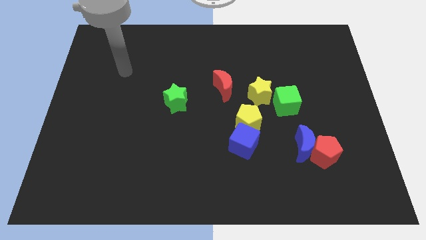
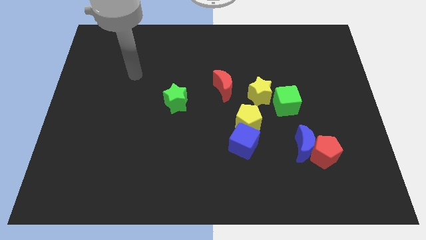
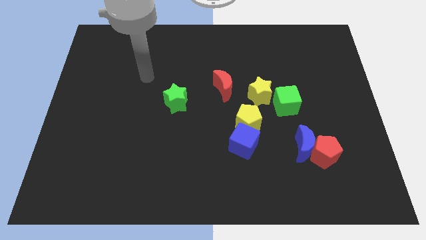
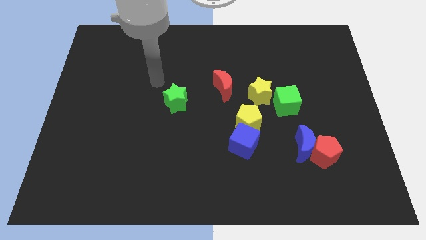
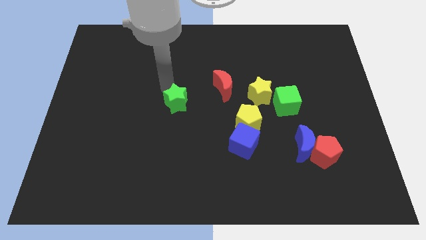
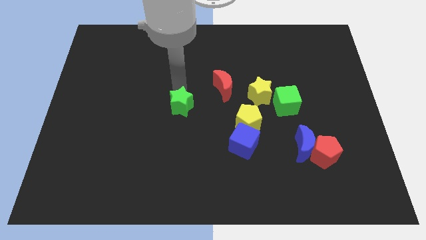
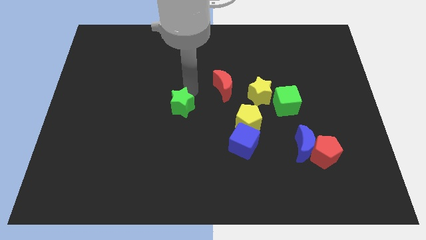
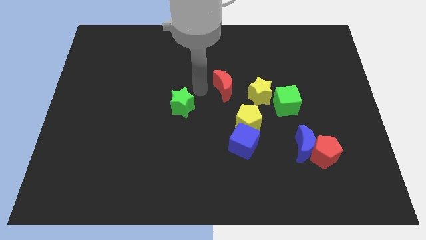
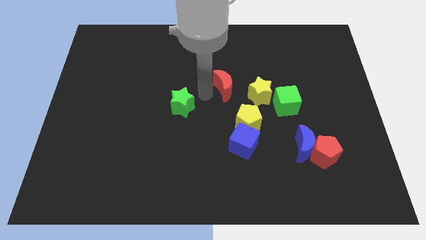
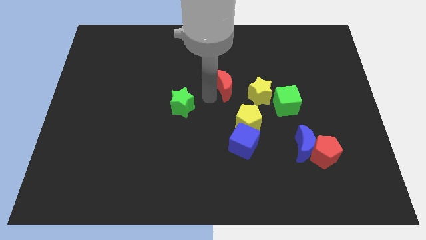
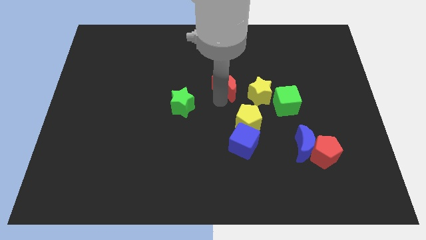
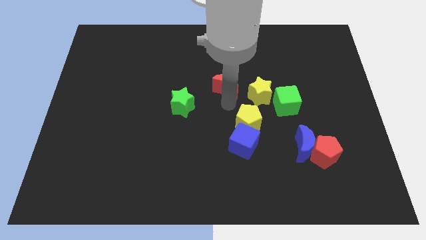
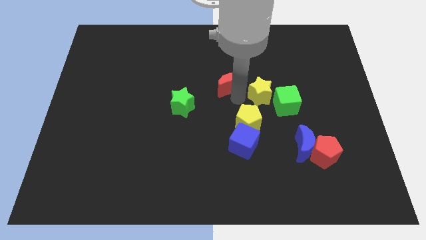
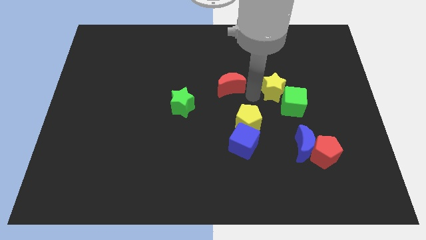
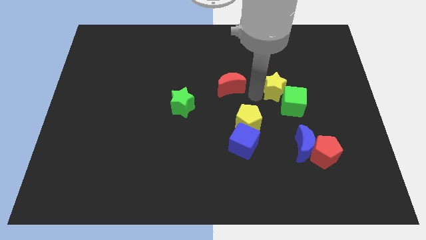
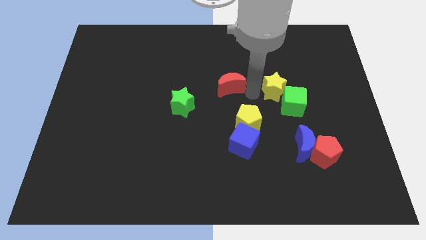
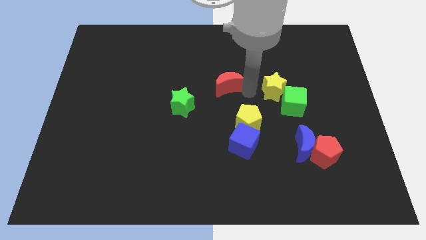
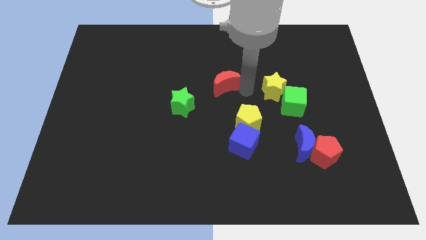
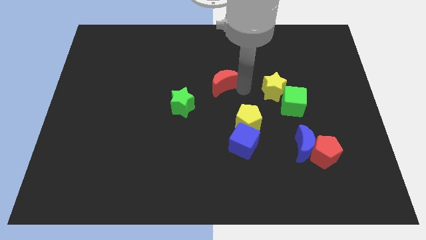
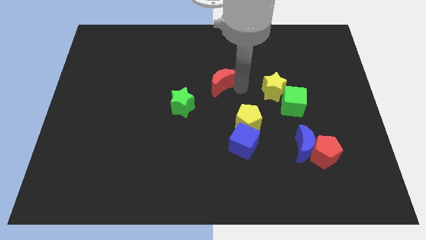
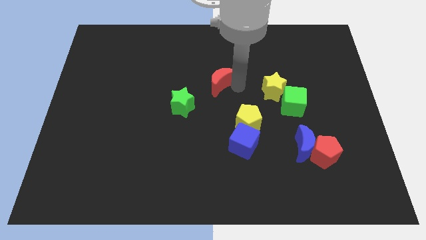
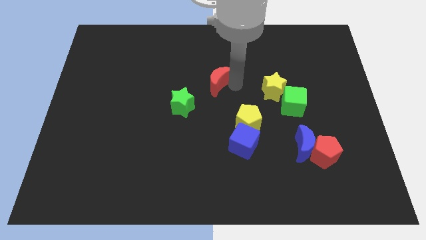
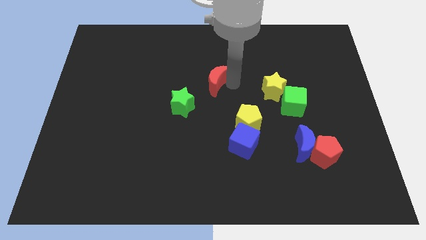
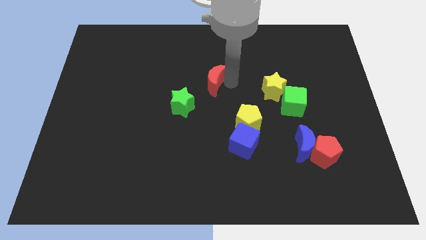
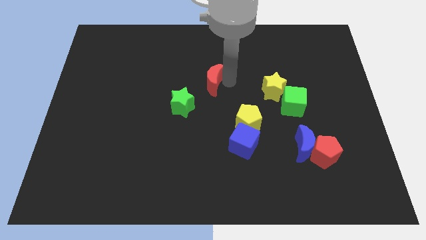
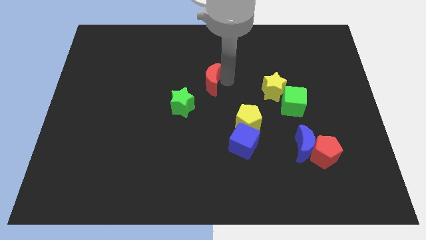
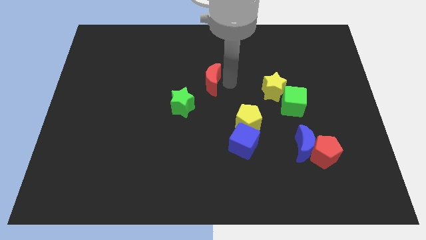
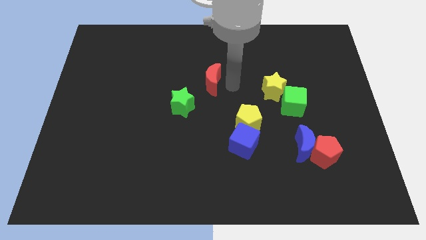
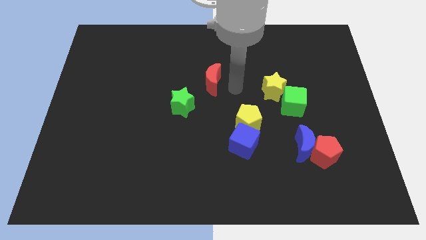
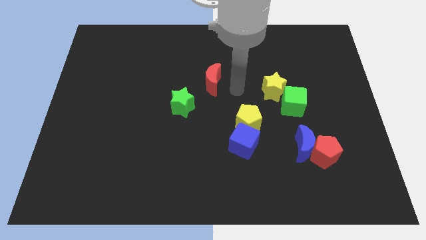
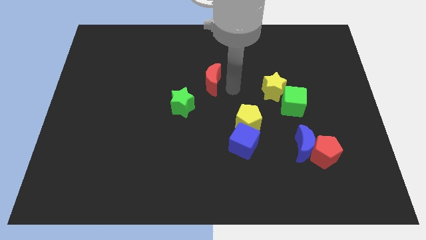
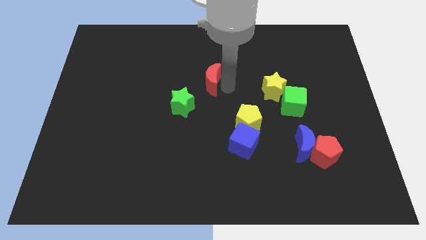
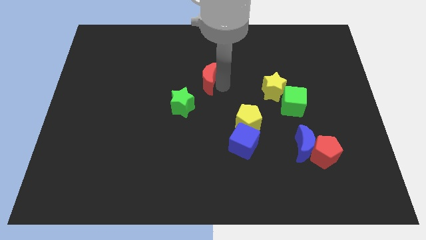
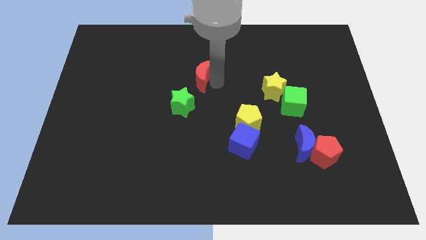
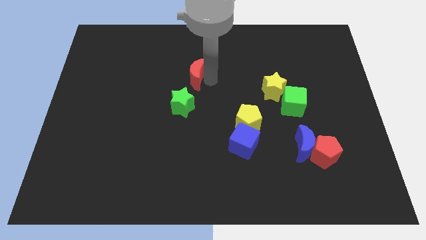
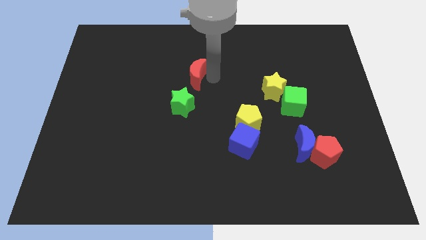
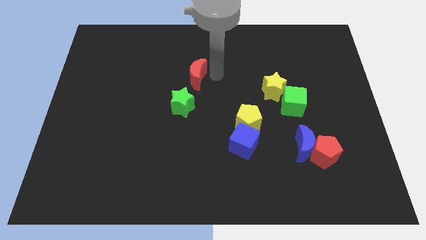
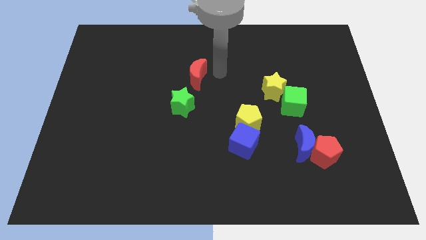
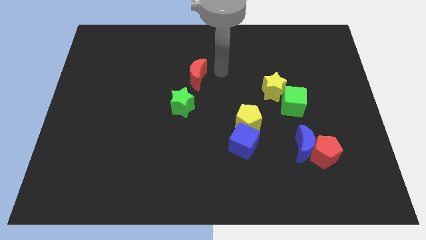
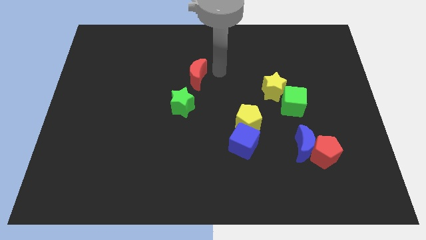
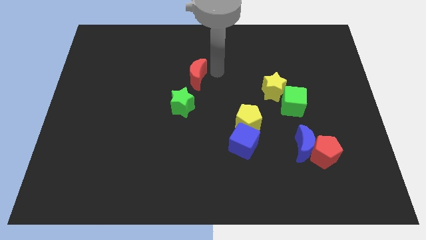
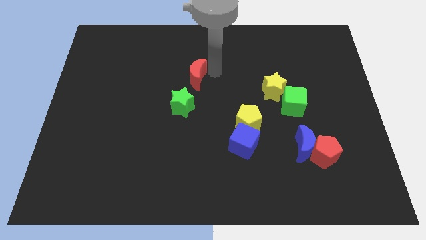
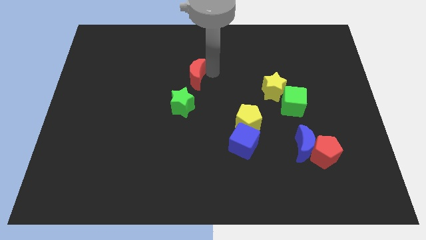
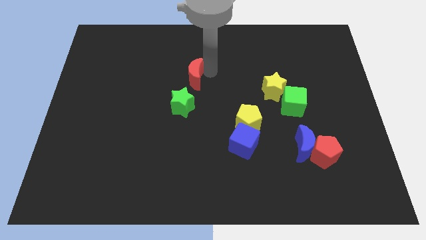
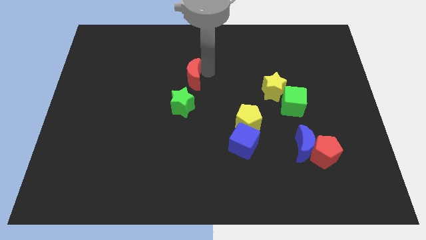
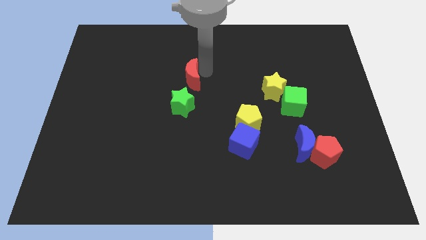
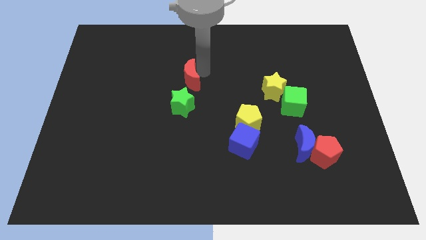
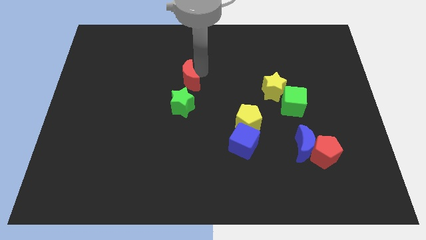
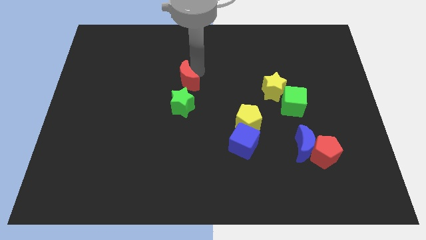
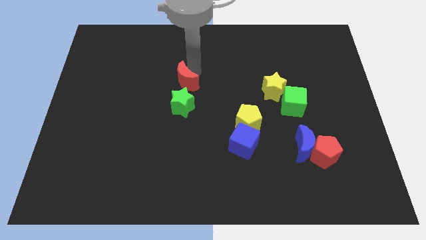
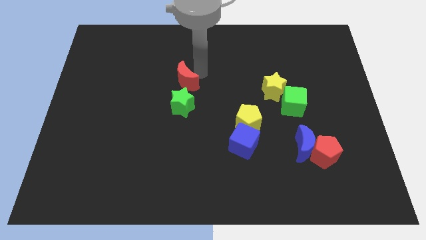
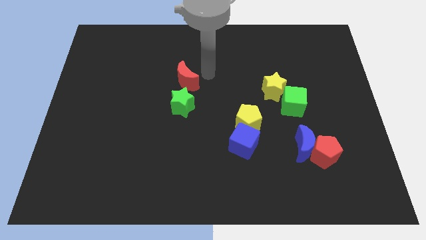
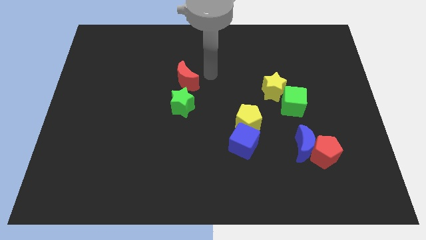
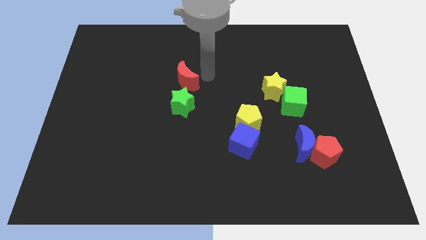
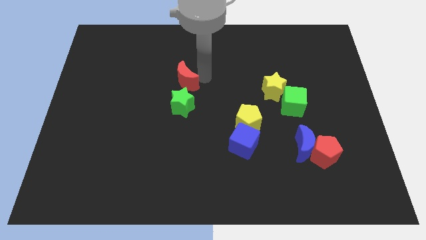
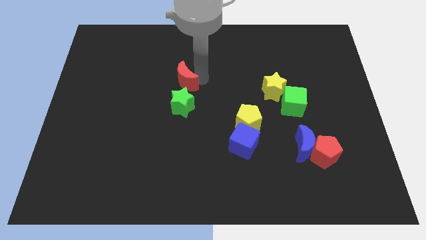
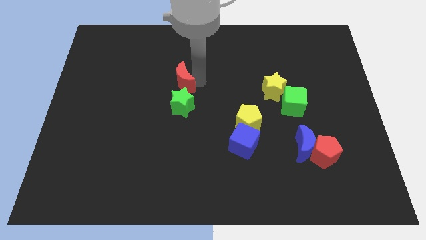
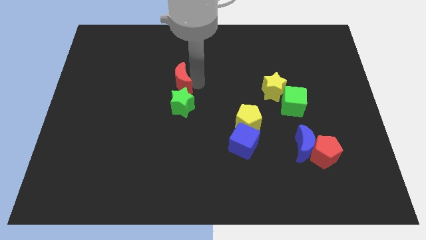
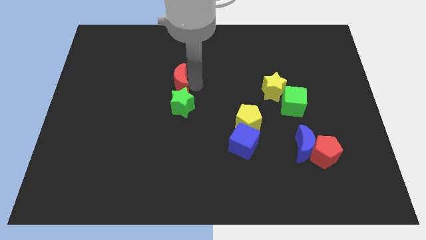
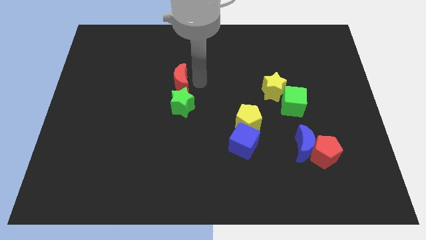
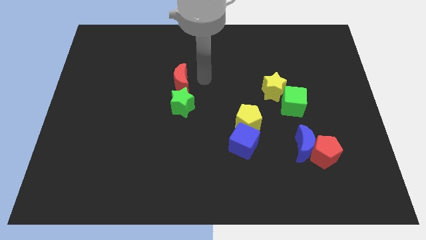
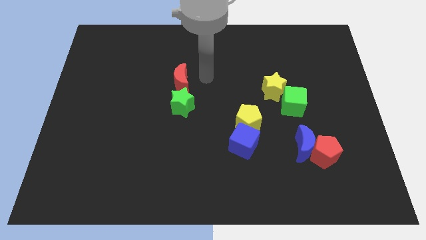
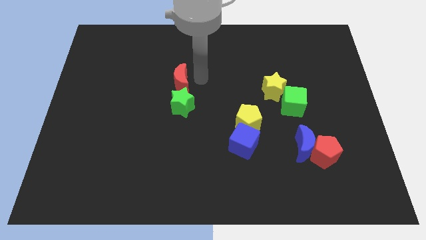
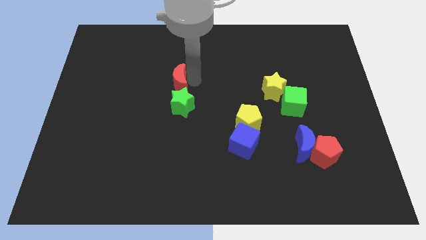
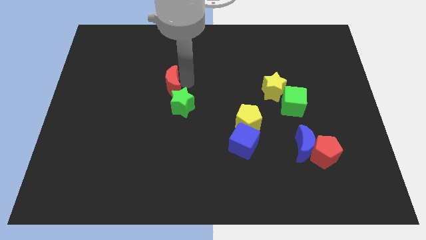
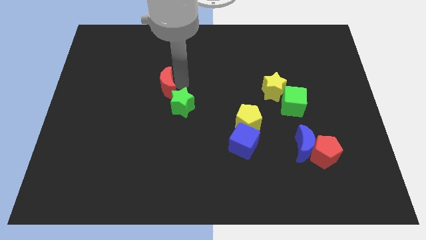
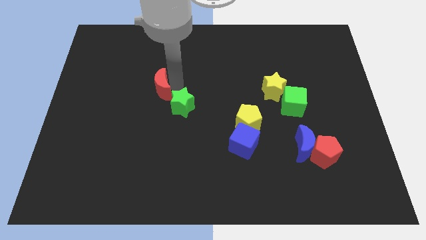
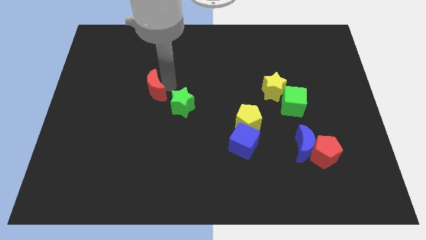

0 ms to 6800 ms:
put the red moon left of the green star
